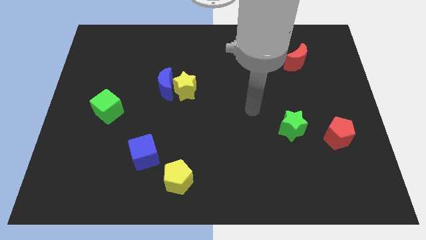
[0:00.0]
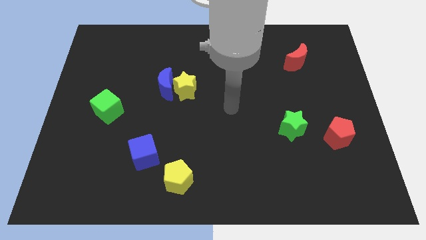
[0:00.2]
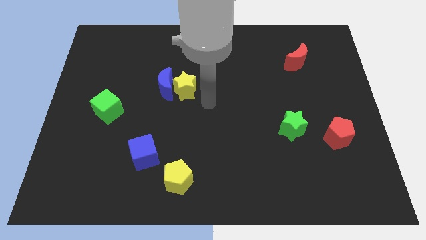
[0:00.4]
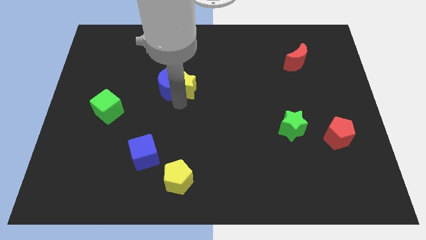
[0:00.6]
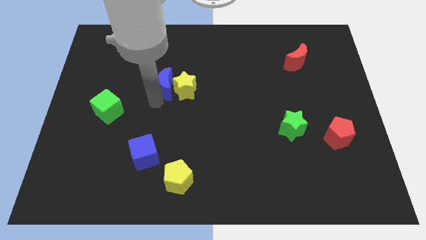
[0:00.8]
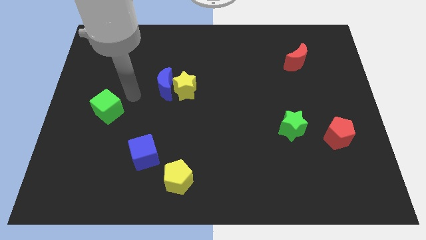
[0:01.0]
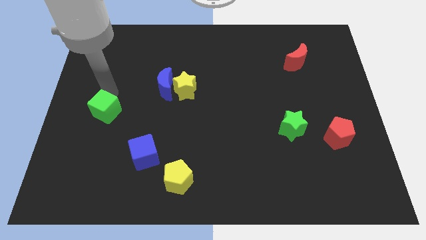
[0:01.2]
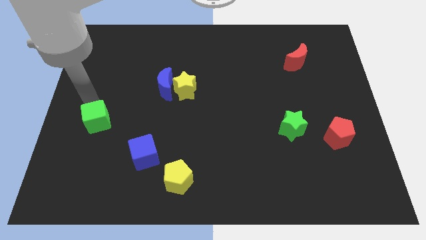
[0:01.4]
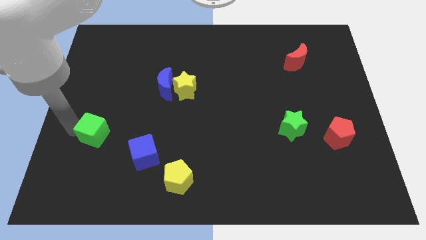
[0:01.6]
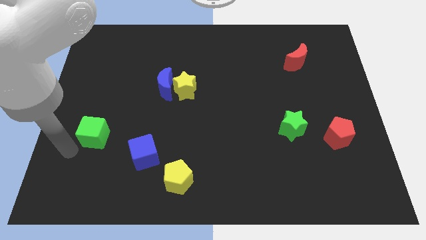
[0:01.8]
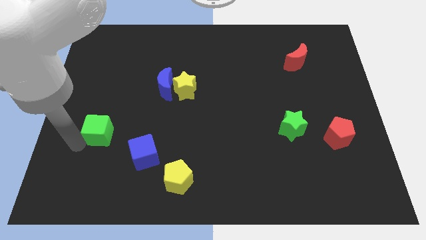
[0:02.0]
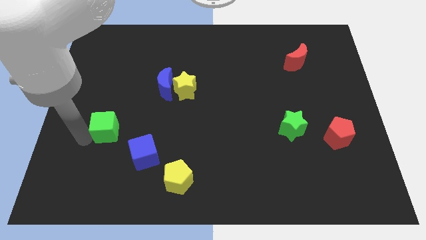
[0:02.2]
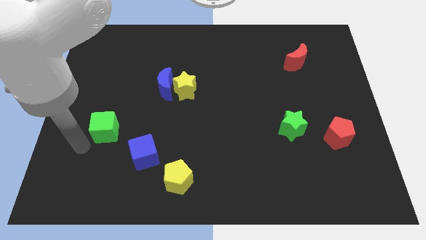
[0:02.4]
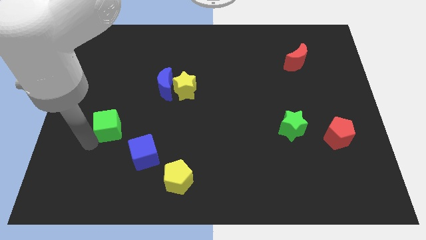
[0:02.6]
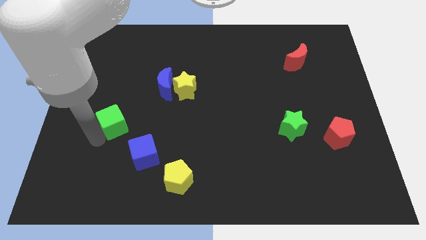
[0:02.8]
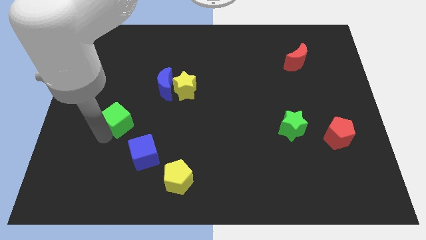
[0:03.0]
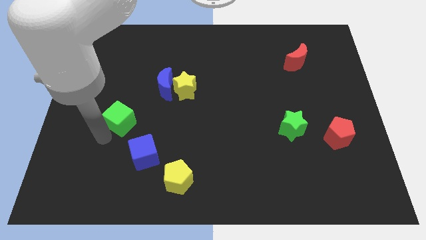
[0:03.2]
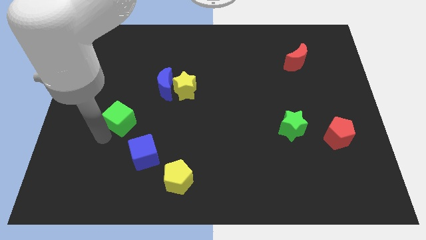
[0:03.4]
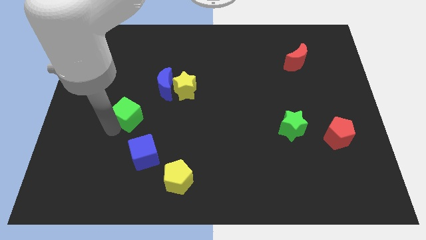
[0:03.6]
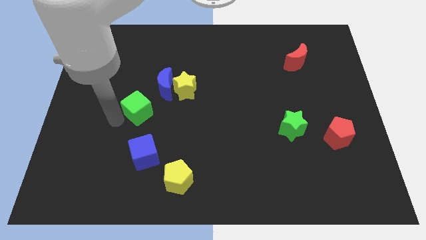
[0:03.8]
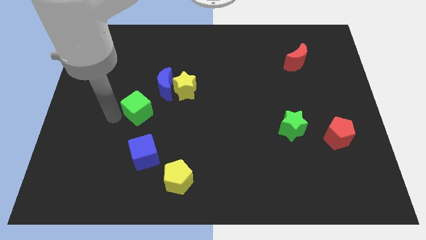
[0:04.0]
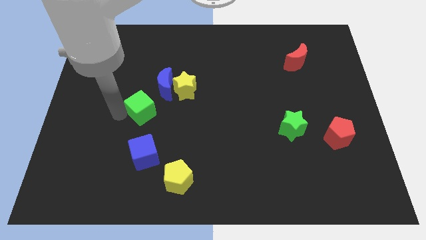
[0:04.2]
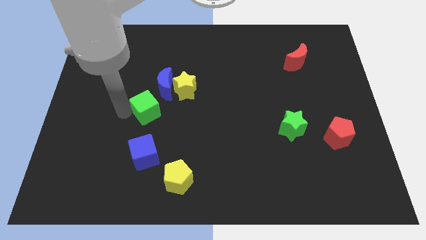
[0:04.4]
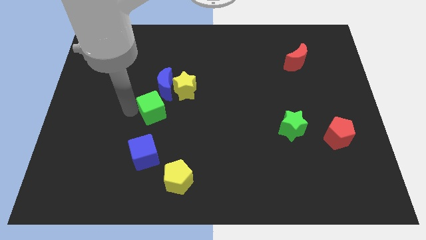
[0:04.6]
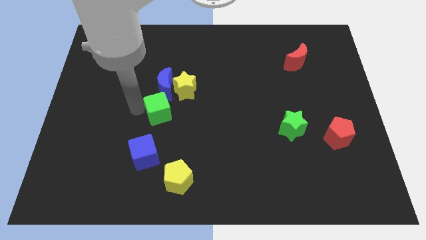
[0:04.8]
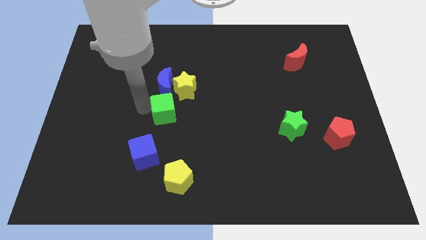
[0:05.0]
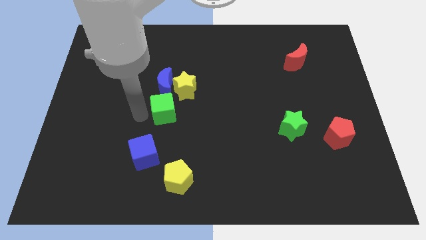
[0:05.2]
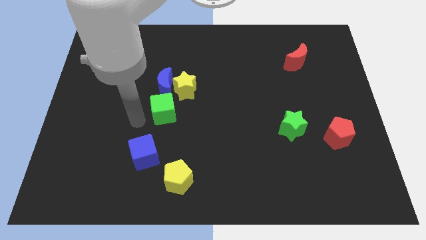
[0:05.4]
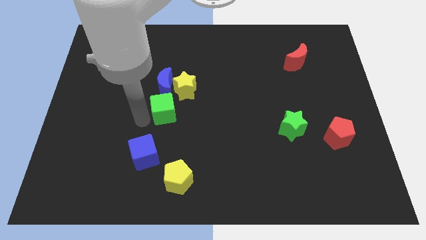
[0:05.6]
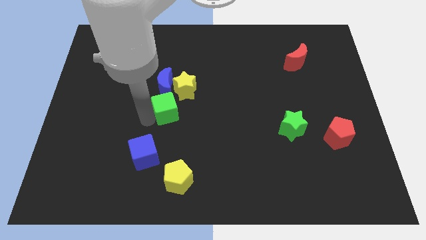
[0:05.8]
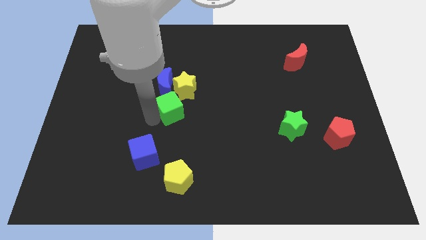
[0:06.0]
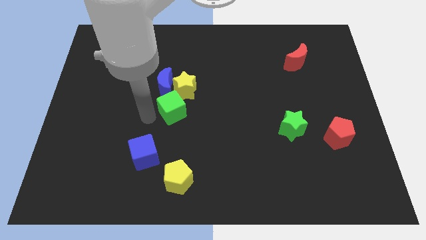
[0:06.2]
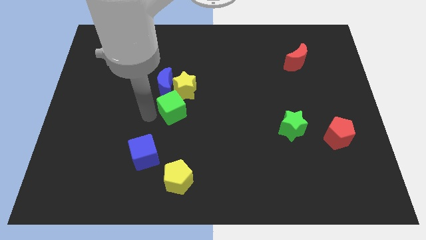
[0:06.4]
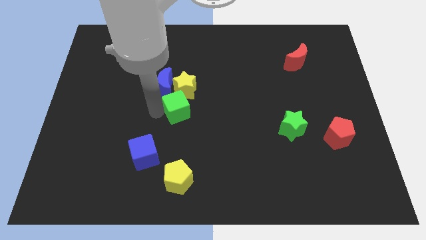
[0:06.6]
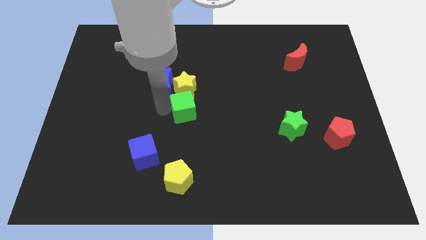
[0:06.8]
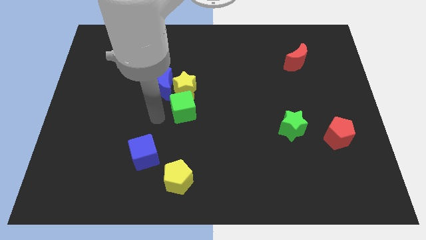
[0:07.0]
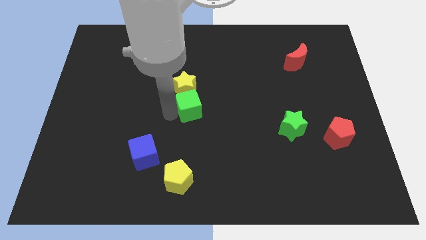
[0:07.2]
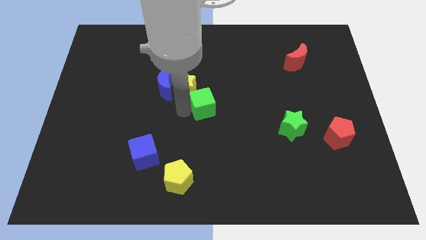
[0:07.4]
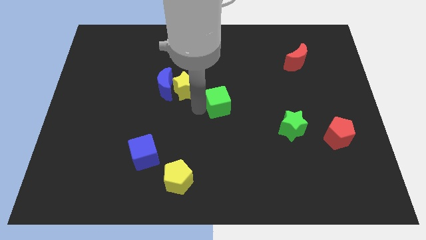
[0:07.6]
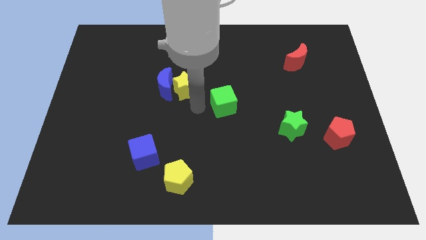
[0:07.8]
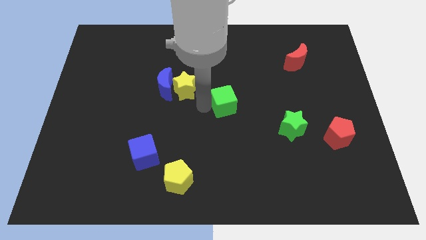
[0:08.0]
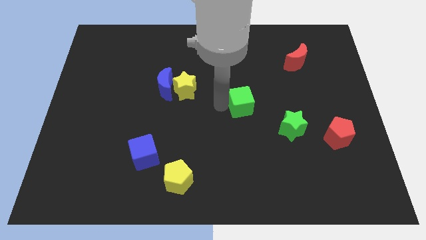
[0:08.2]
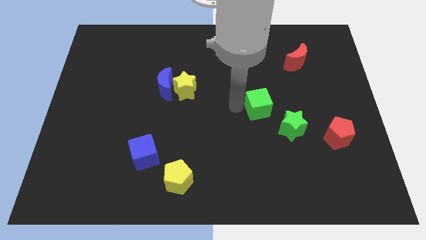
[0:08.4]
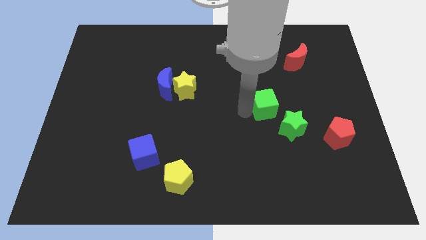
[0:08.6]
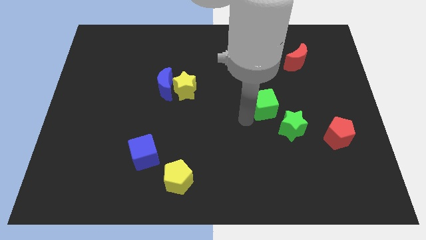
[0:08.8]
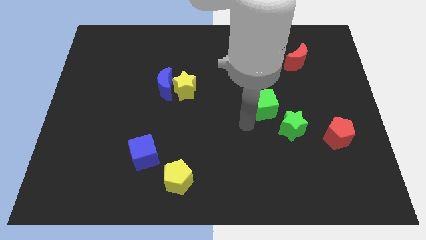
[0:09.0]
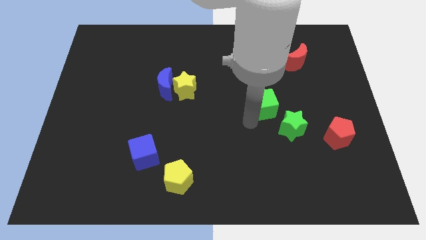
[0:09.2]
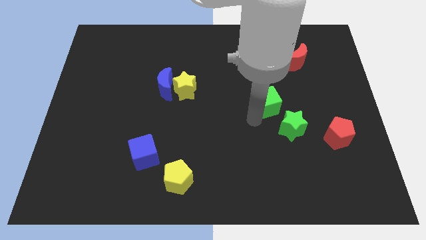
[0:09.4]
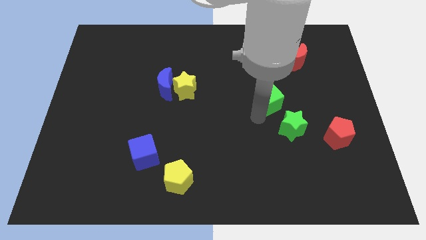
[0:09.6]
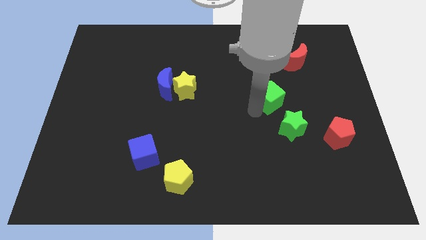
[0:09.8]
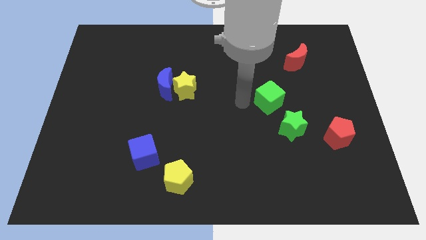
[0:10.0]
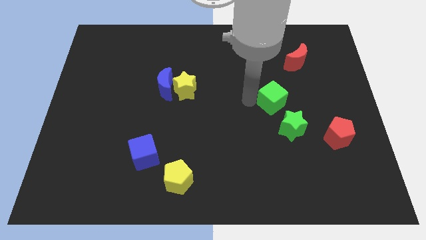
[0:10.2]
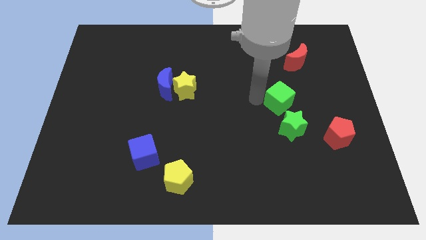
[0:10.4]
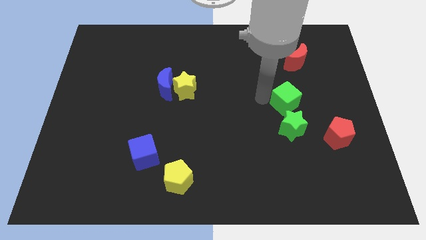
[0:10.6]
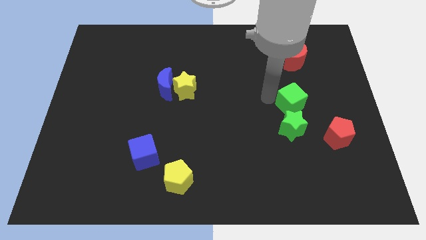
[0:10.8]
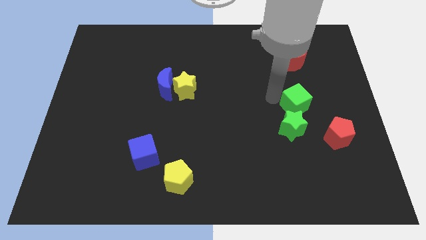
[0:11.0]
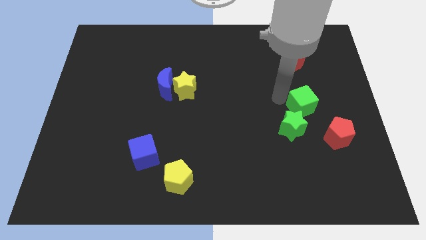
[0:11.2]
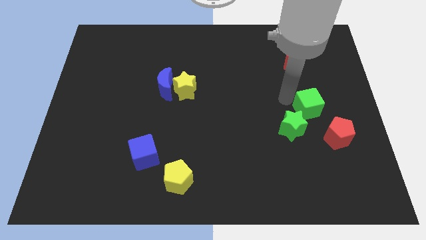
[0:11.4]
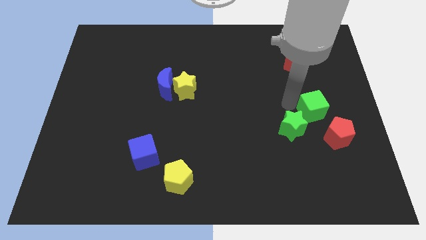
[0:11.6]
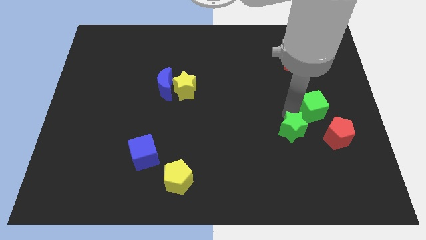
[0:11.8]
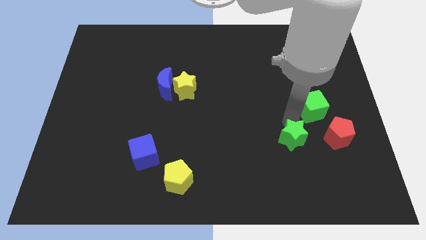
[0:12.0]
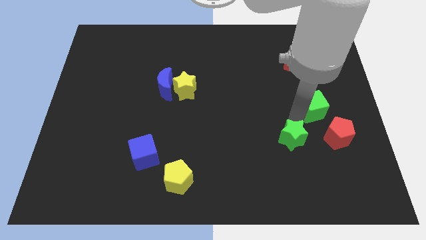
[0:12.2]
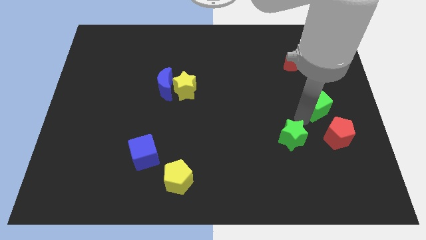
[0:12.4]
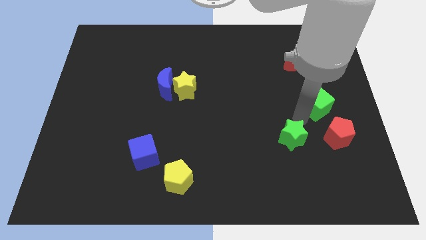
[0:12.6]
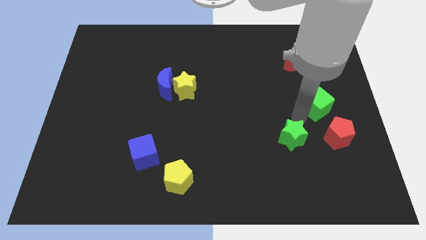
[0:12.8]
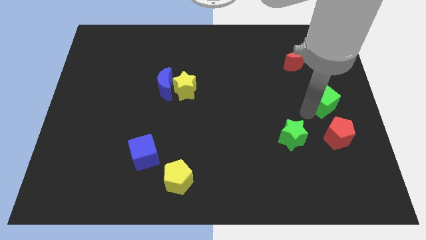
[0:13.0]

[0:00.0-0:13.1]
move the green cube to the right side of the board
